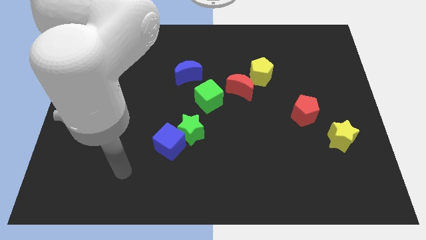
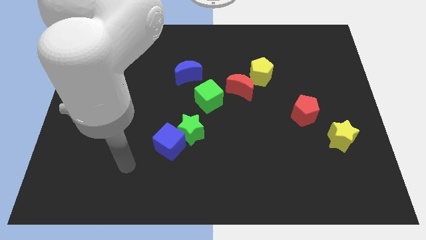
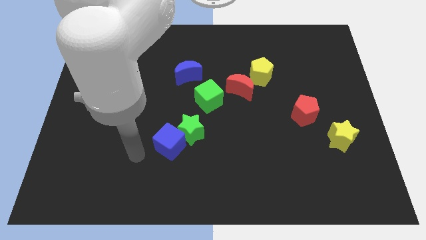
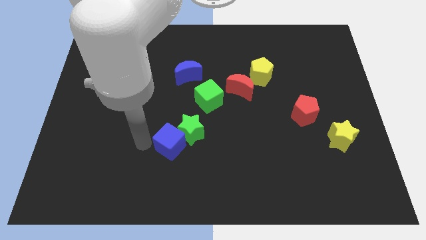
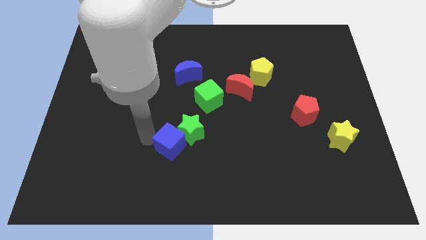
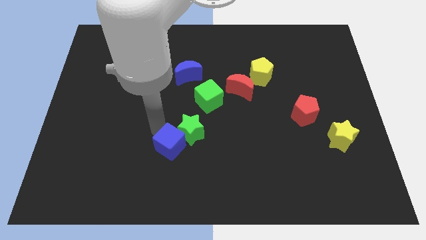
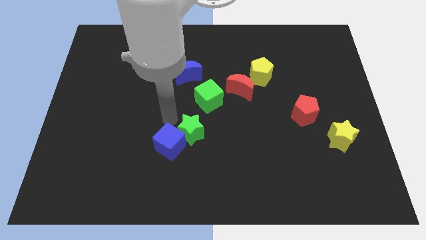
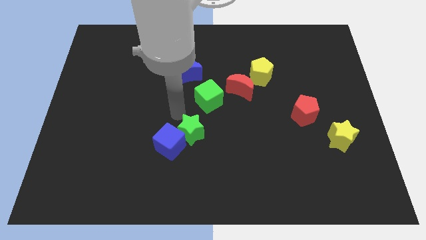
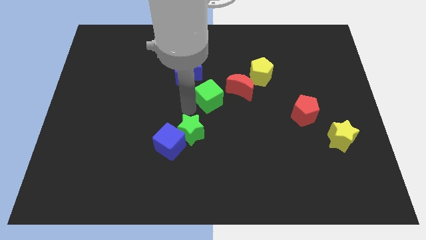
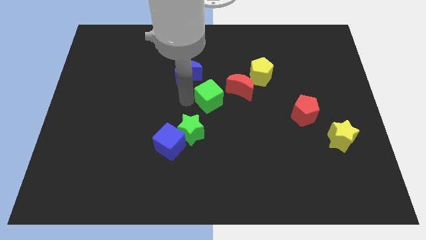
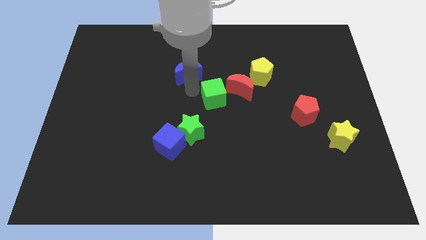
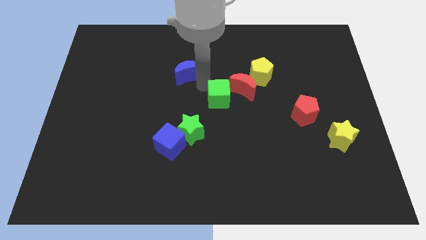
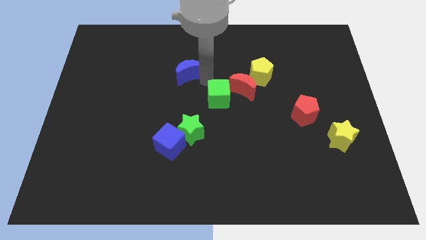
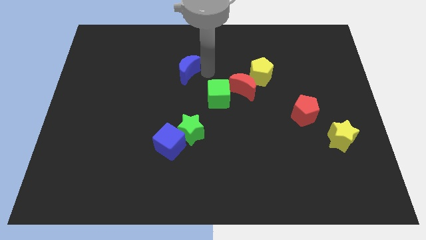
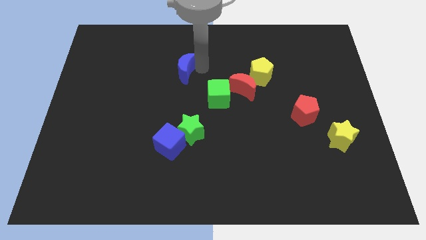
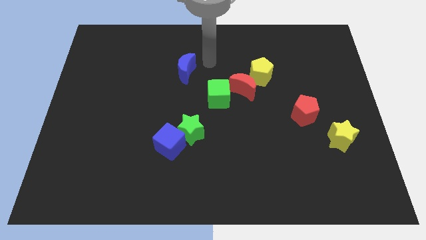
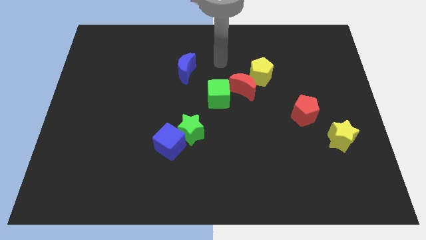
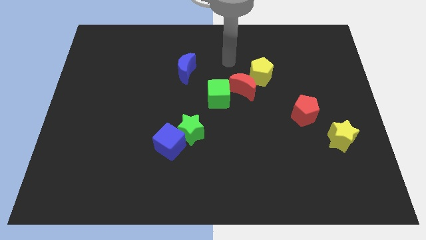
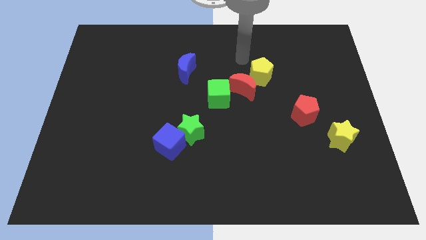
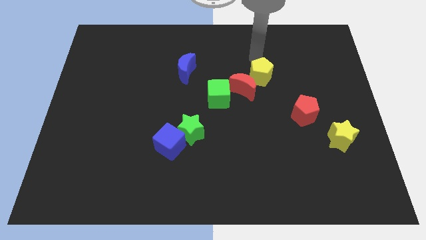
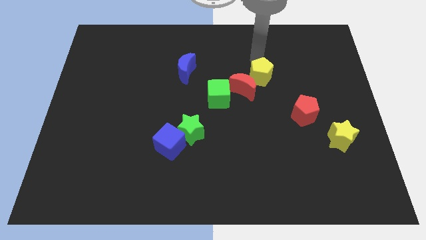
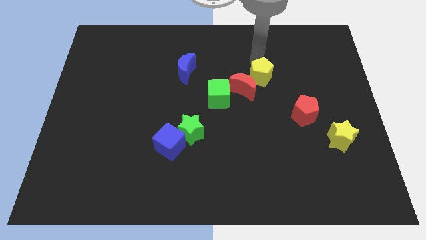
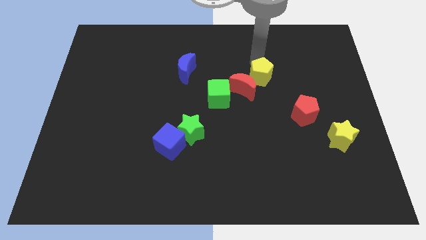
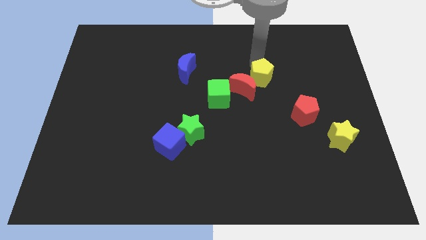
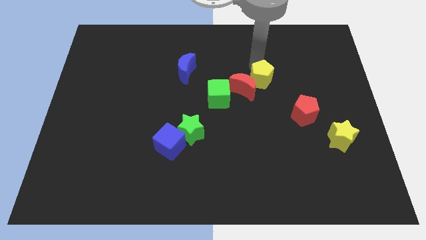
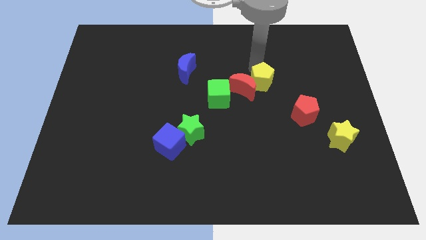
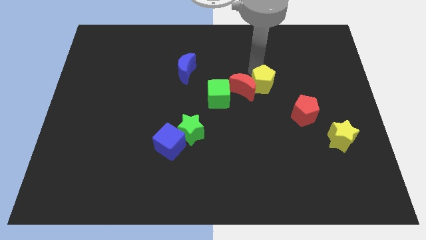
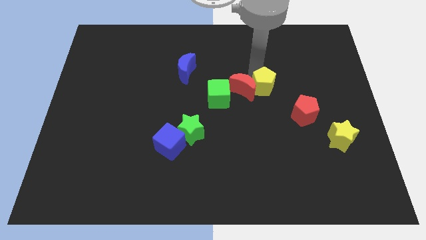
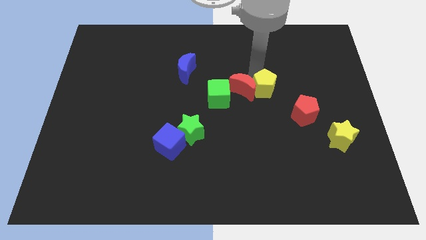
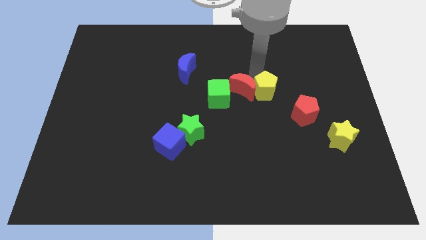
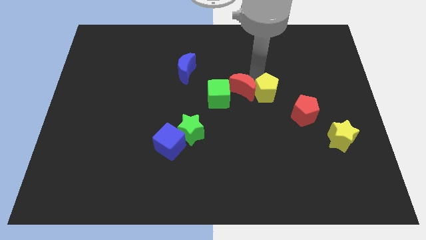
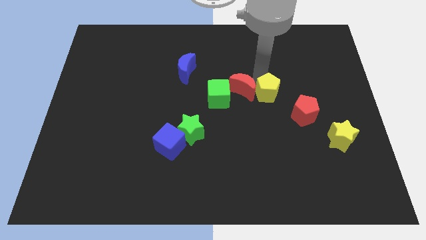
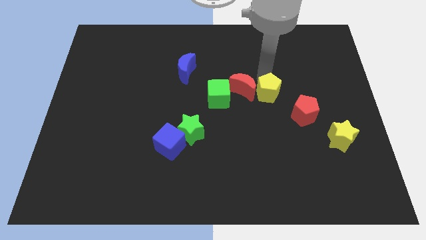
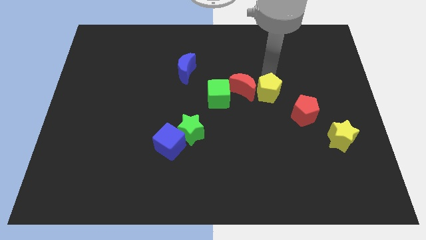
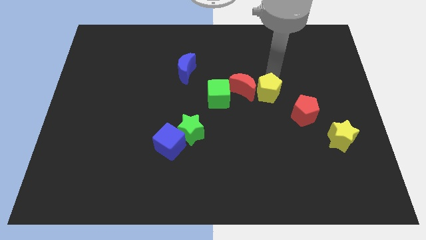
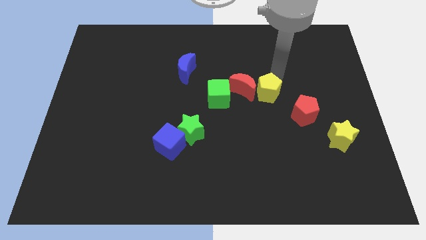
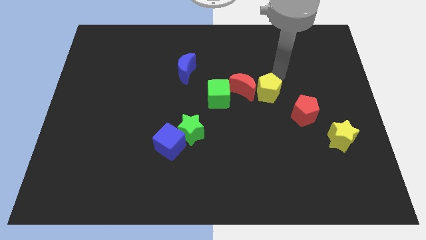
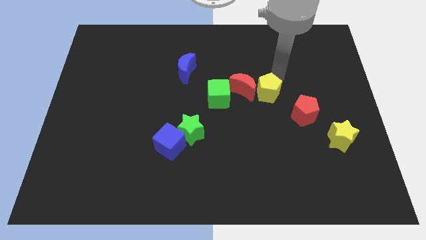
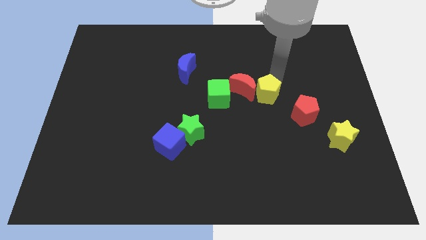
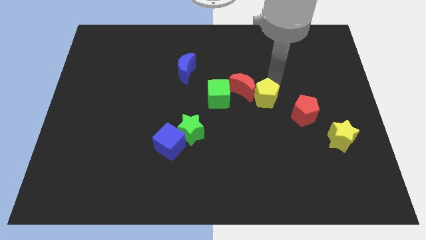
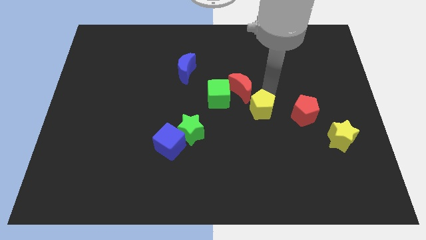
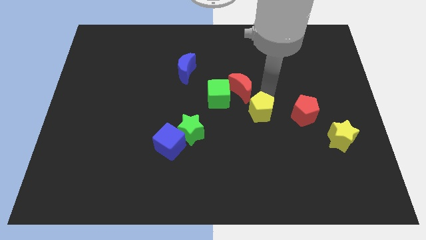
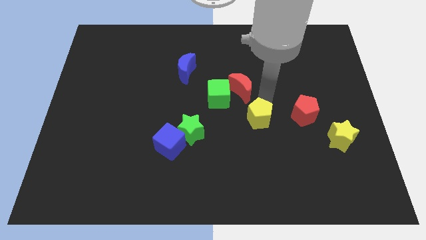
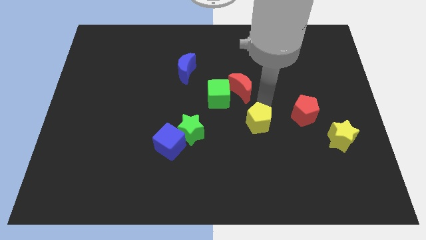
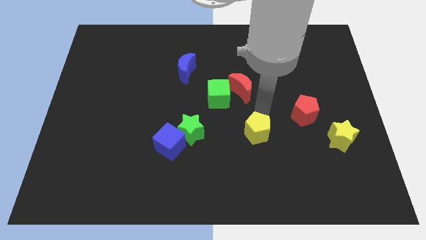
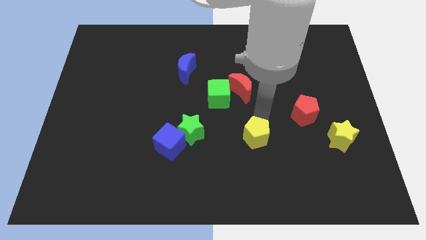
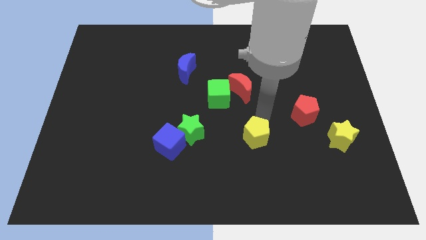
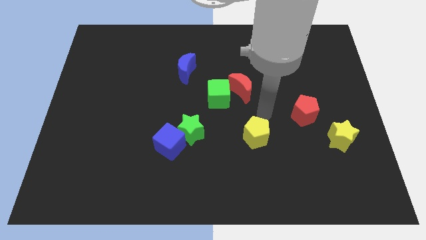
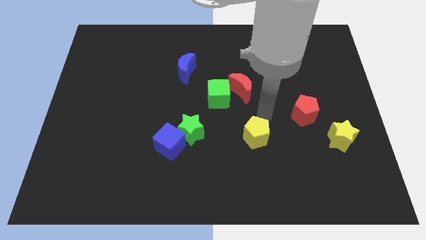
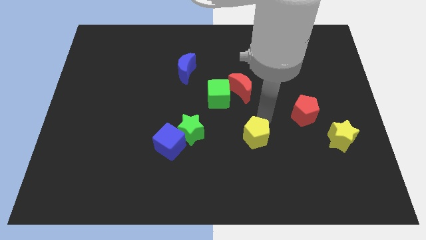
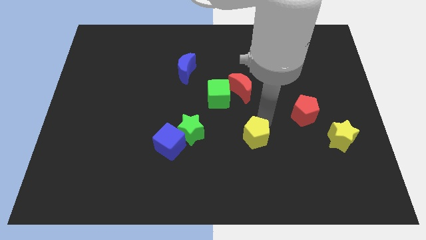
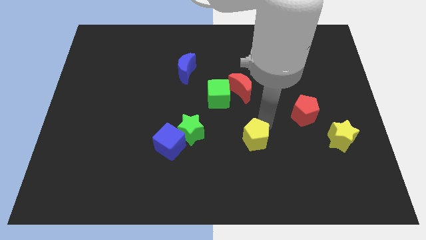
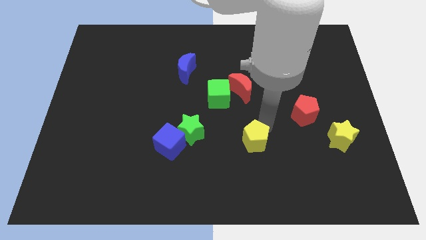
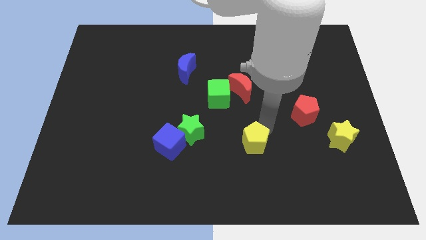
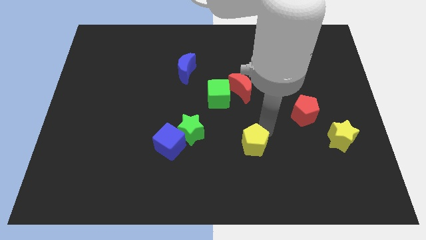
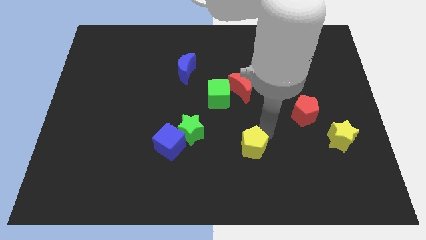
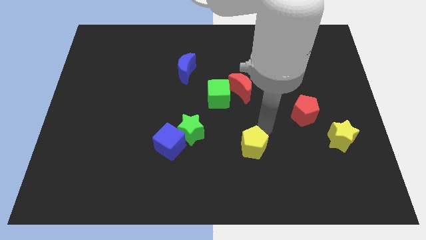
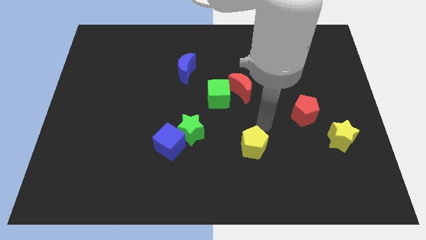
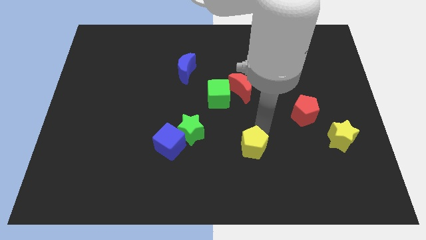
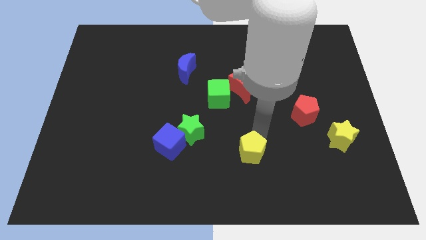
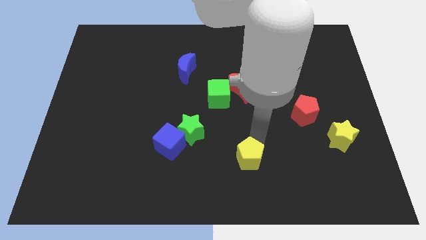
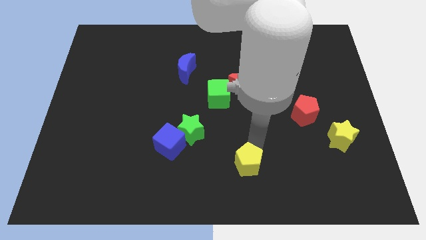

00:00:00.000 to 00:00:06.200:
put the yellow pentagon to the bottom side

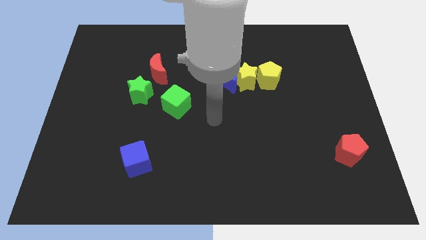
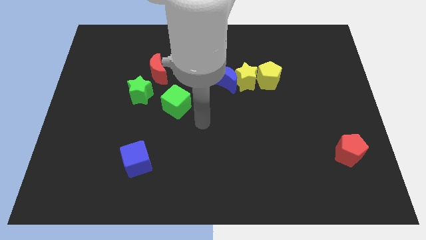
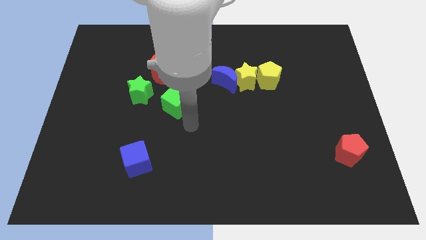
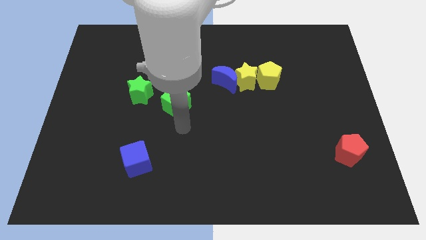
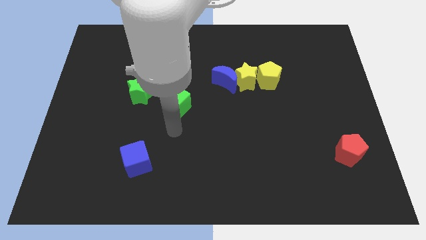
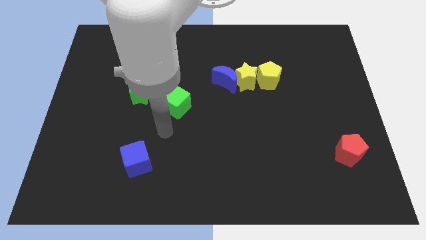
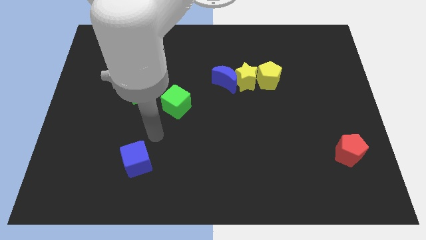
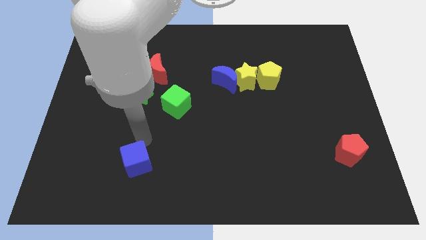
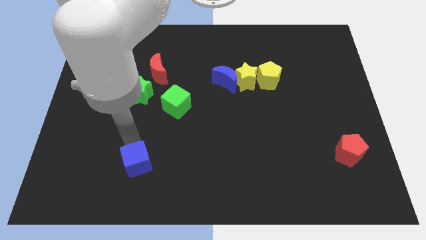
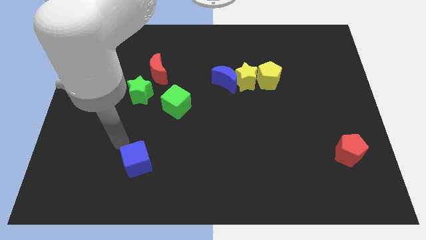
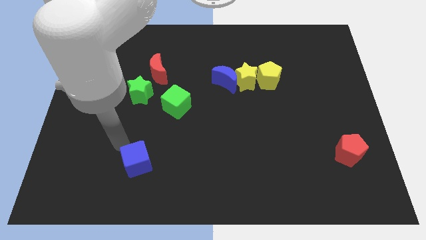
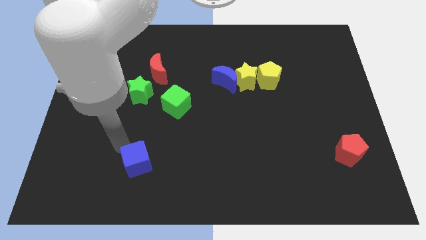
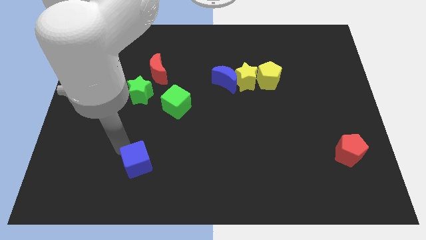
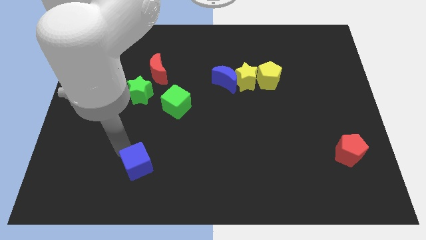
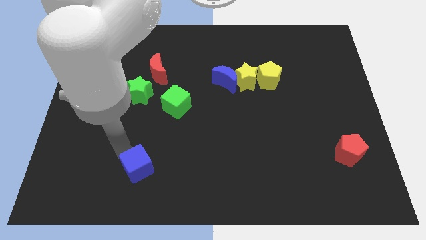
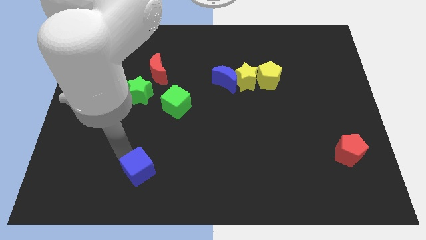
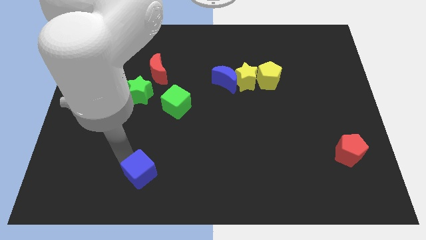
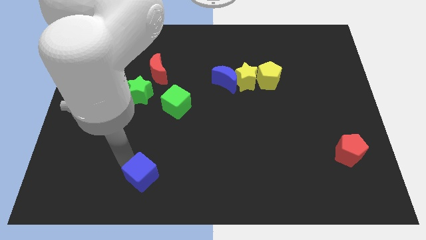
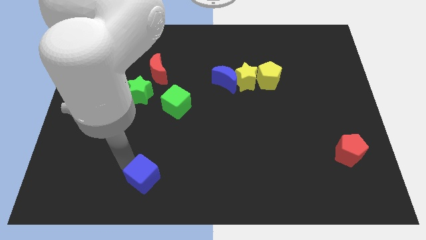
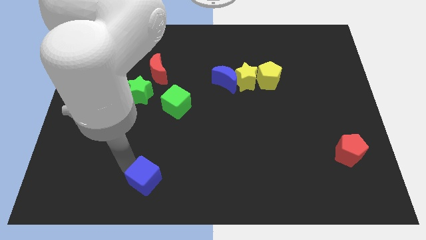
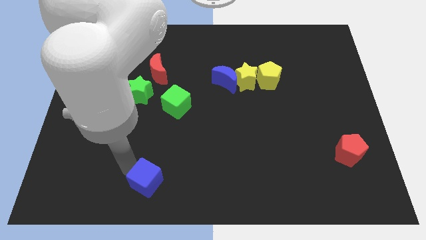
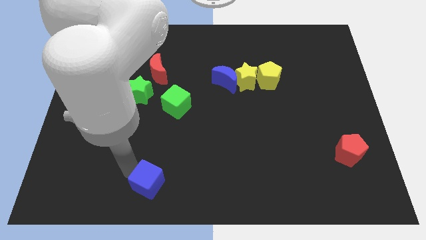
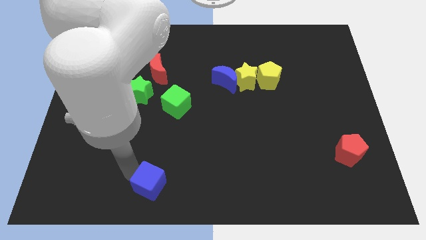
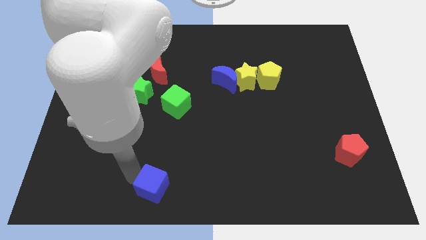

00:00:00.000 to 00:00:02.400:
move the blue cube to the bottom side
